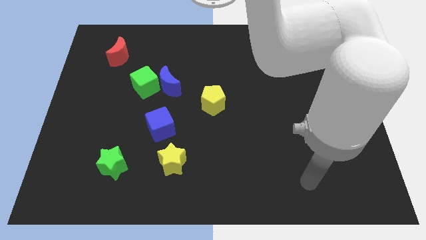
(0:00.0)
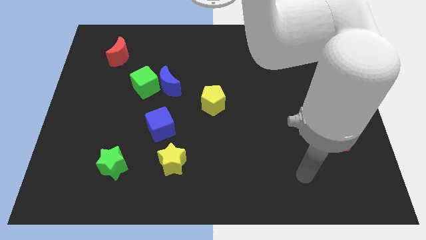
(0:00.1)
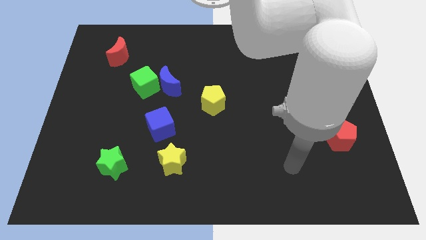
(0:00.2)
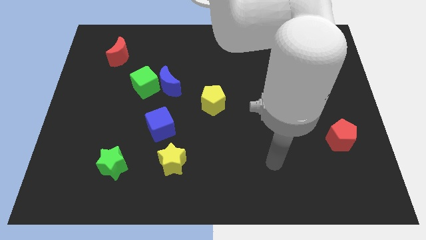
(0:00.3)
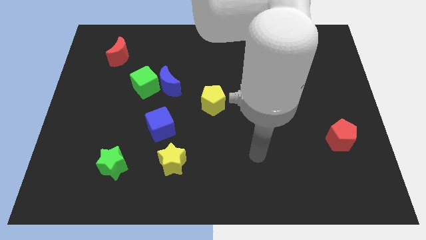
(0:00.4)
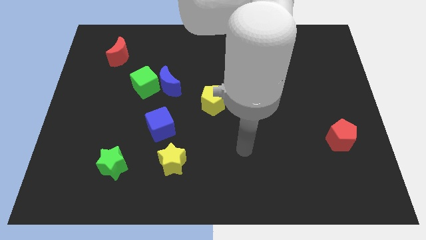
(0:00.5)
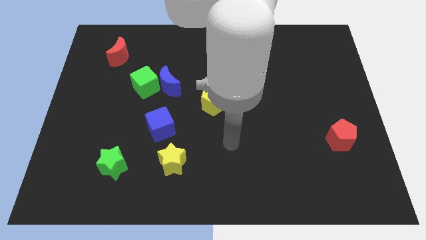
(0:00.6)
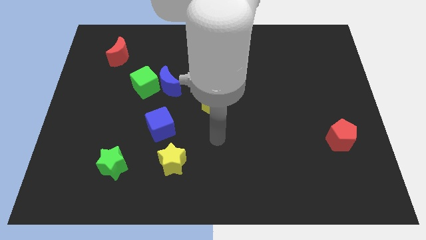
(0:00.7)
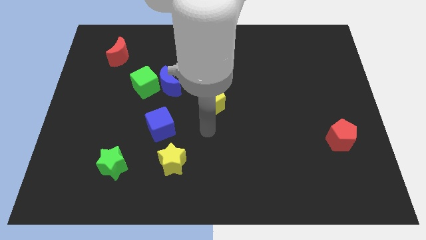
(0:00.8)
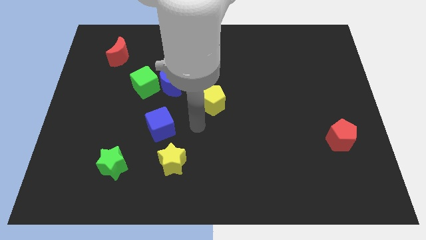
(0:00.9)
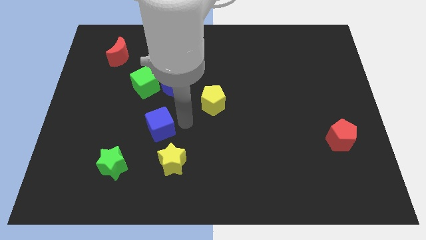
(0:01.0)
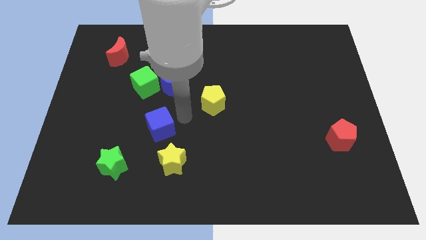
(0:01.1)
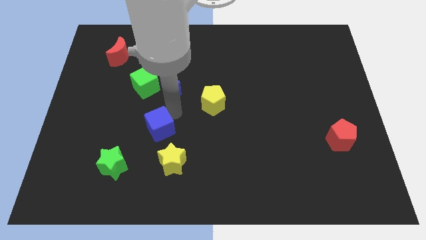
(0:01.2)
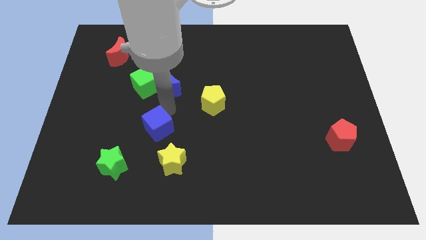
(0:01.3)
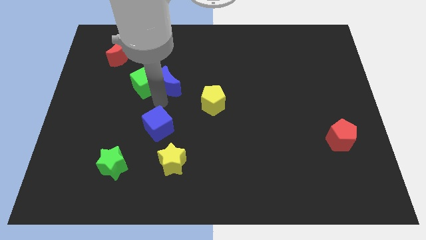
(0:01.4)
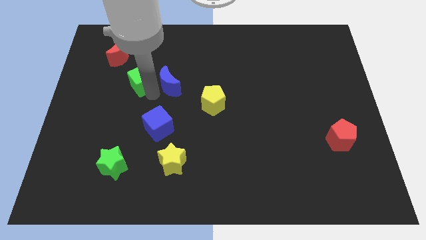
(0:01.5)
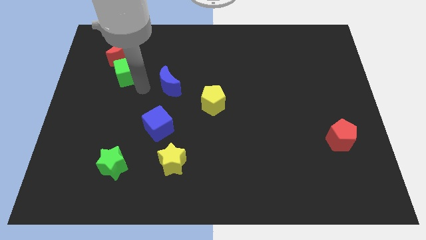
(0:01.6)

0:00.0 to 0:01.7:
pull the blue moon apart from the green cube

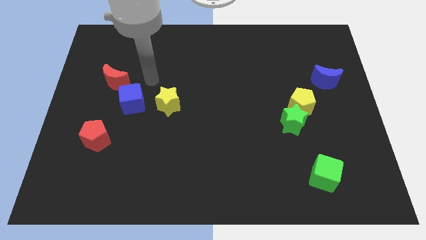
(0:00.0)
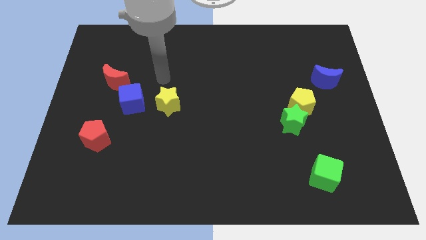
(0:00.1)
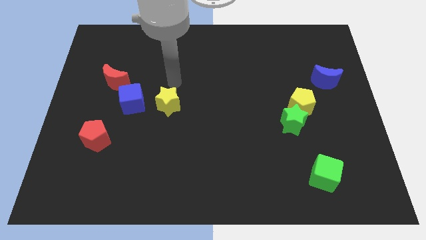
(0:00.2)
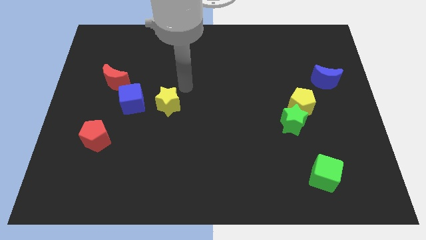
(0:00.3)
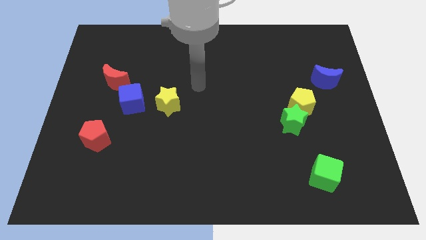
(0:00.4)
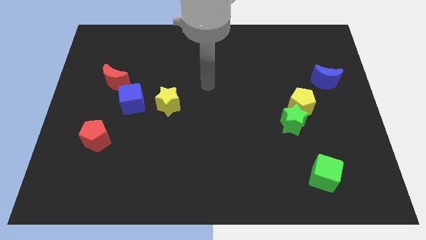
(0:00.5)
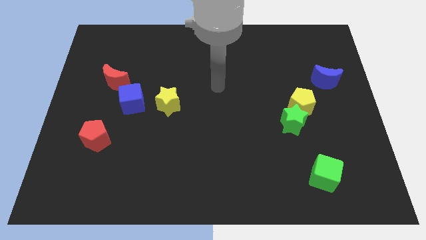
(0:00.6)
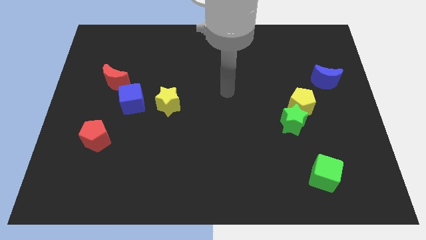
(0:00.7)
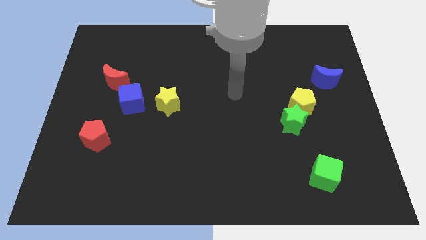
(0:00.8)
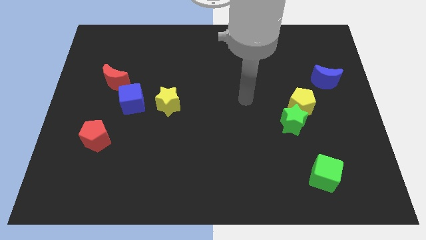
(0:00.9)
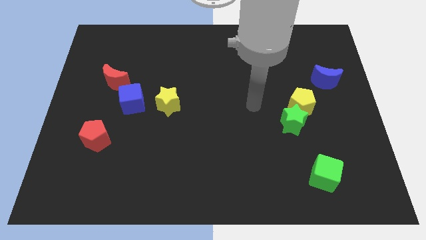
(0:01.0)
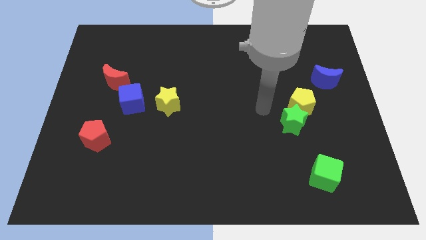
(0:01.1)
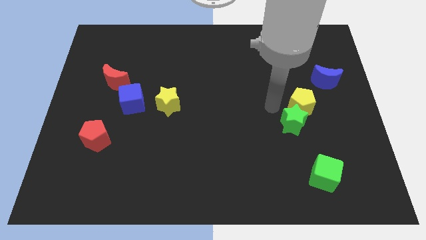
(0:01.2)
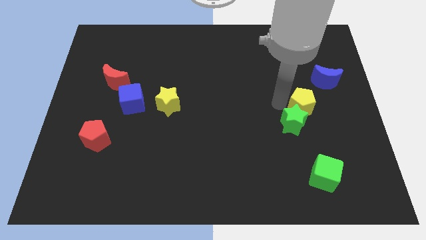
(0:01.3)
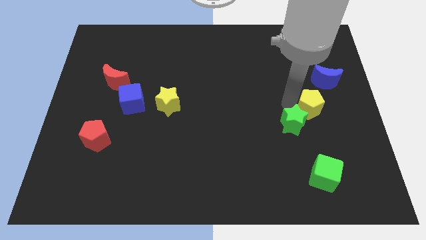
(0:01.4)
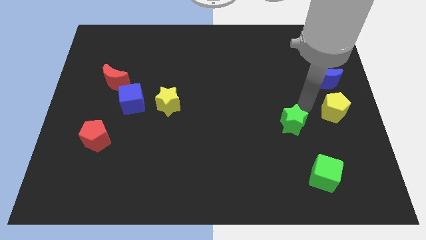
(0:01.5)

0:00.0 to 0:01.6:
pull the green star apart from the yellow pentagon

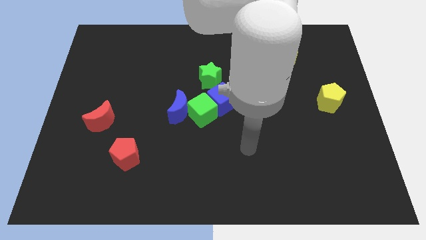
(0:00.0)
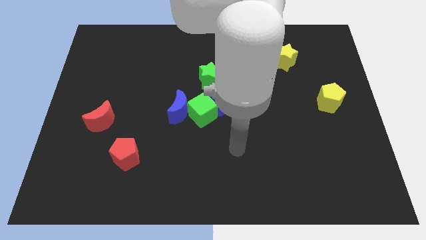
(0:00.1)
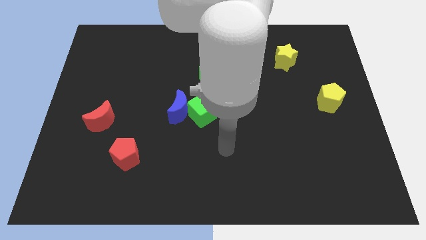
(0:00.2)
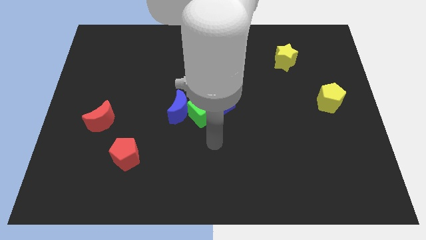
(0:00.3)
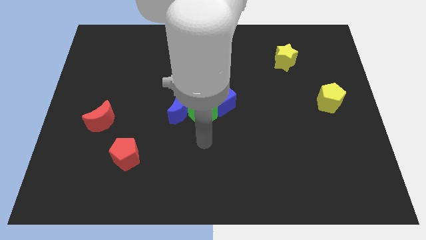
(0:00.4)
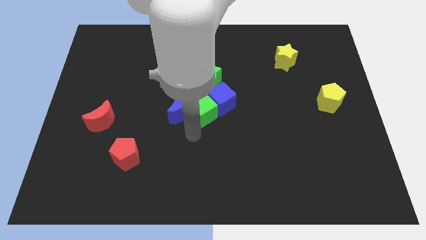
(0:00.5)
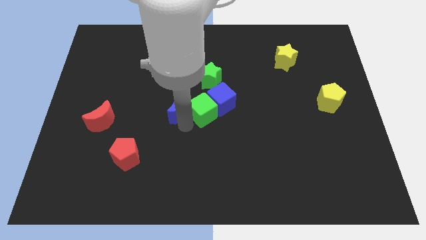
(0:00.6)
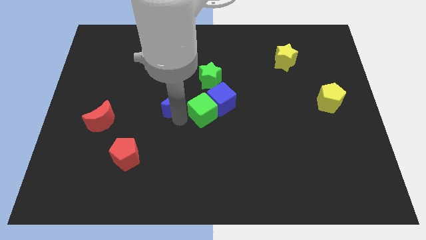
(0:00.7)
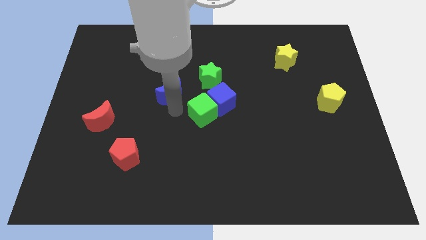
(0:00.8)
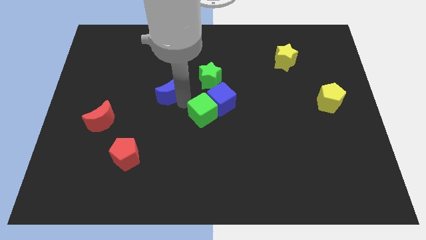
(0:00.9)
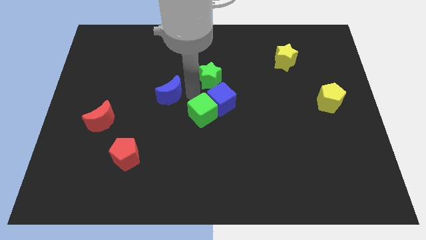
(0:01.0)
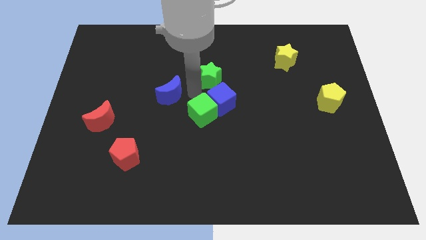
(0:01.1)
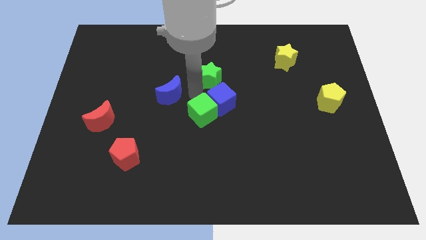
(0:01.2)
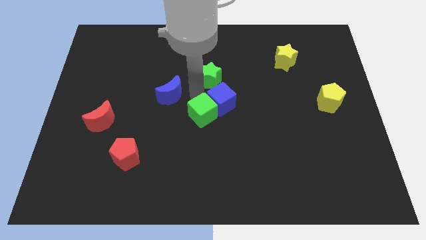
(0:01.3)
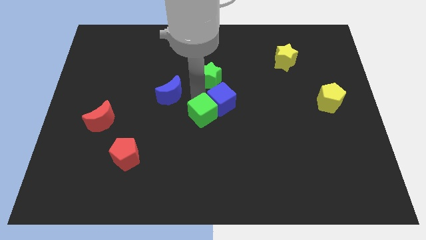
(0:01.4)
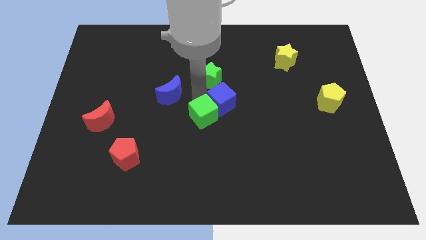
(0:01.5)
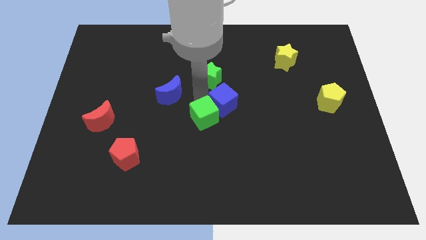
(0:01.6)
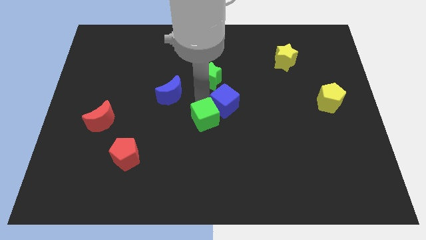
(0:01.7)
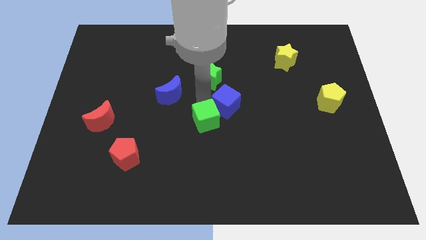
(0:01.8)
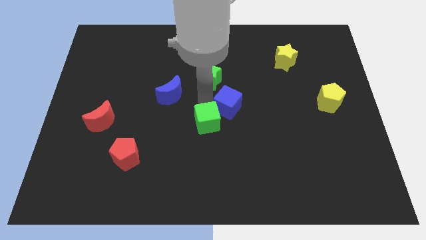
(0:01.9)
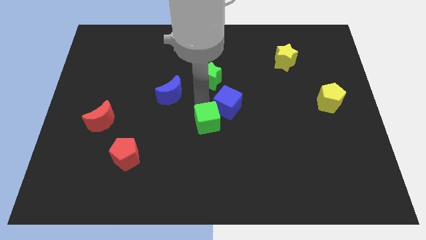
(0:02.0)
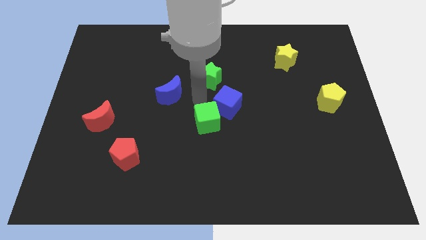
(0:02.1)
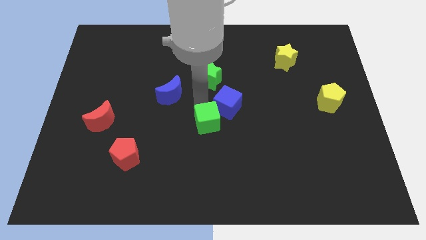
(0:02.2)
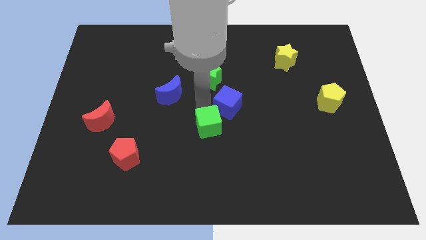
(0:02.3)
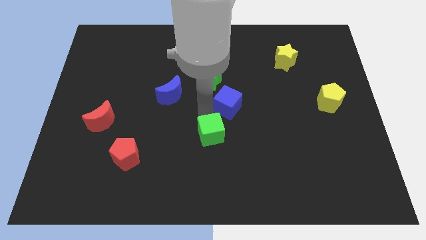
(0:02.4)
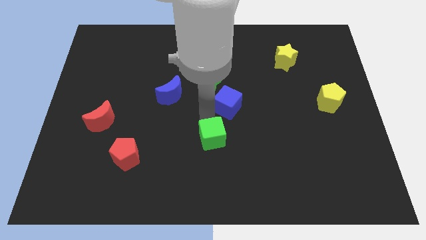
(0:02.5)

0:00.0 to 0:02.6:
separate the green cube from the blue moon and blue cube

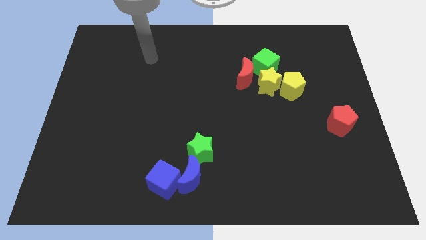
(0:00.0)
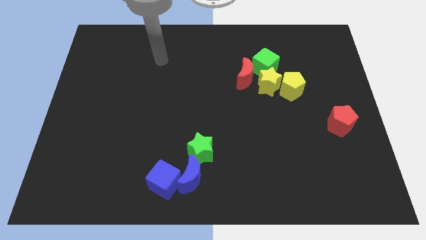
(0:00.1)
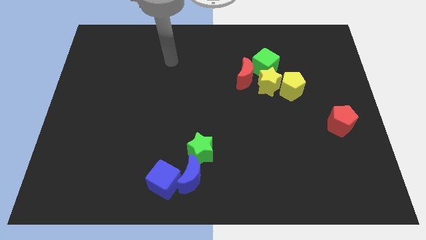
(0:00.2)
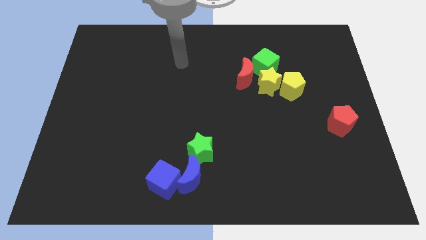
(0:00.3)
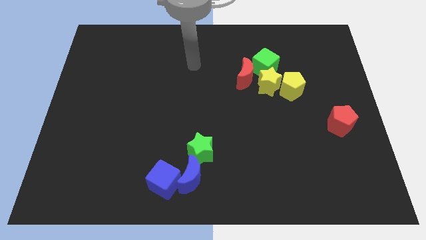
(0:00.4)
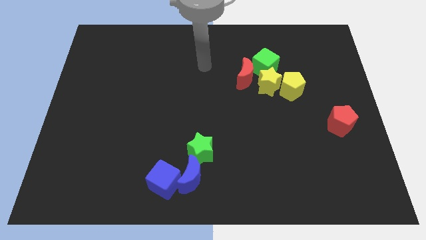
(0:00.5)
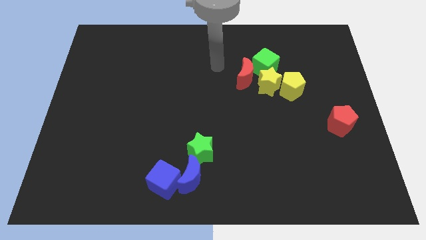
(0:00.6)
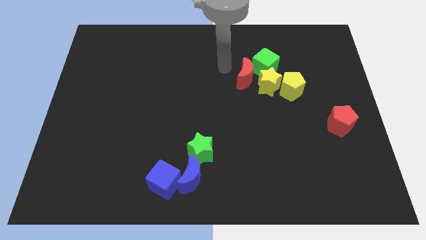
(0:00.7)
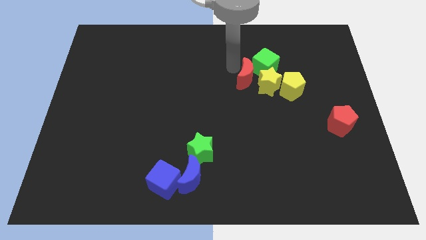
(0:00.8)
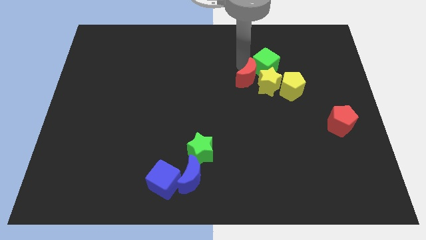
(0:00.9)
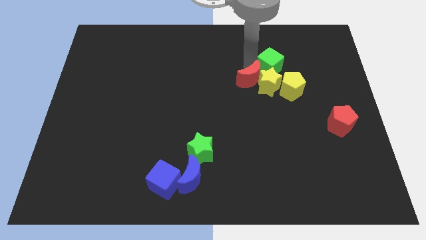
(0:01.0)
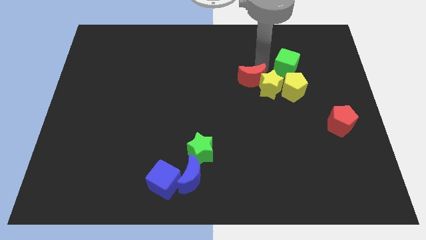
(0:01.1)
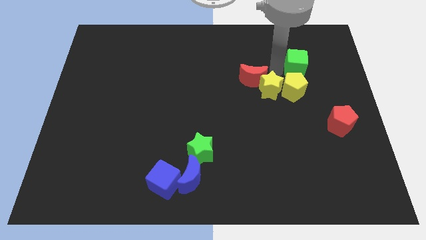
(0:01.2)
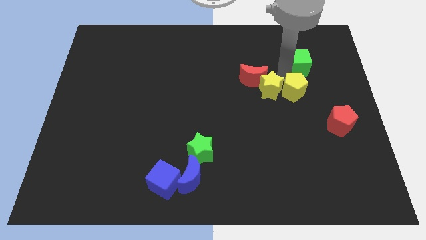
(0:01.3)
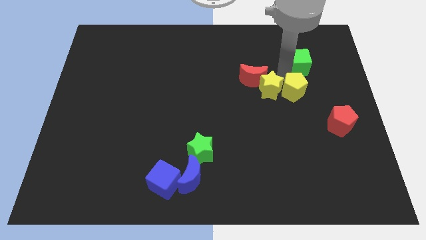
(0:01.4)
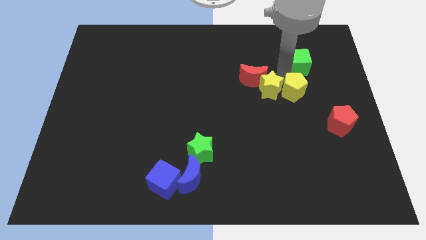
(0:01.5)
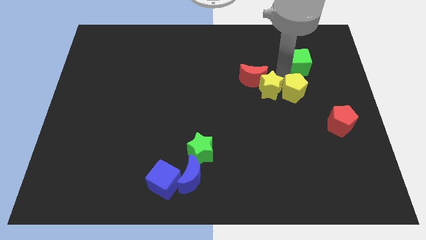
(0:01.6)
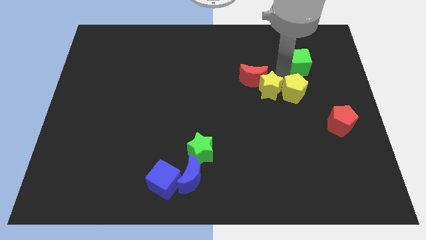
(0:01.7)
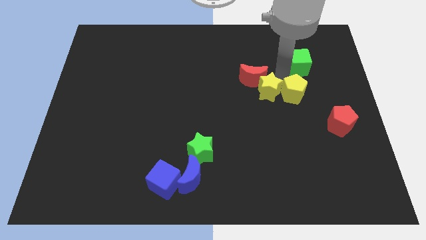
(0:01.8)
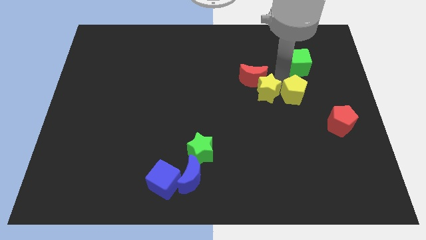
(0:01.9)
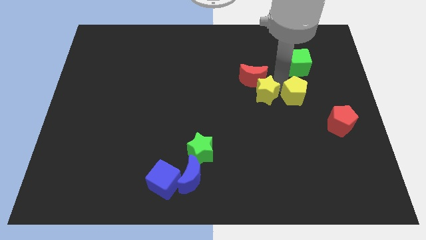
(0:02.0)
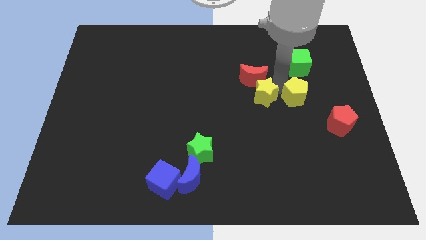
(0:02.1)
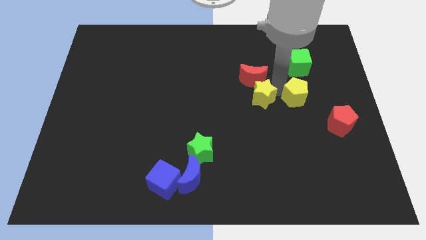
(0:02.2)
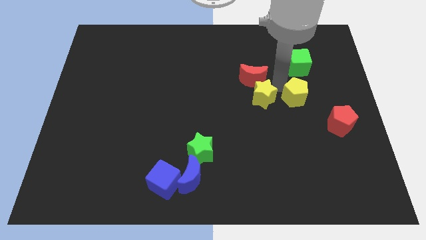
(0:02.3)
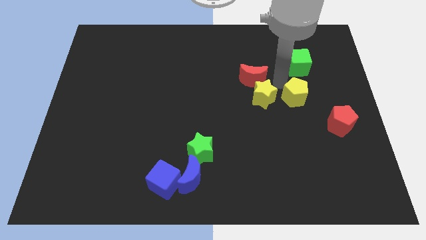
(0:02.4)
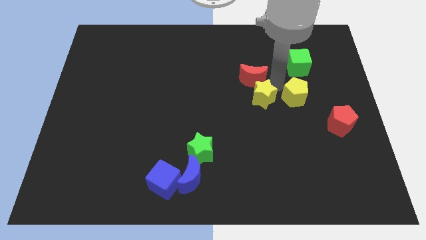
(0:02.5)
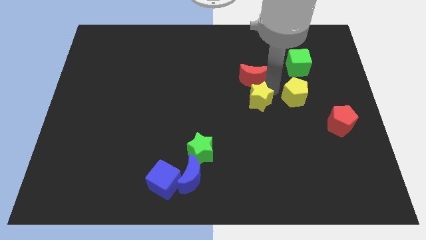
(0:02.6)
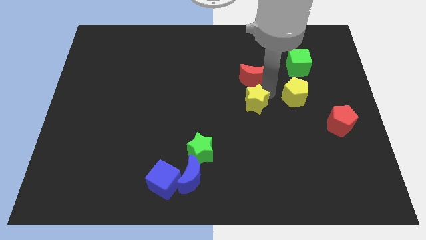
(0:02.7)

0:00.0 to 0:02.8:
separate the yellow star from the red moon, yellow pentagon, and green cube

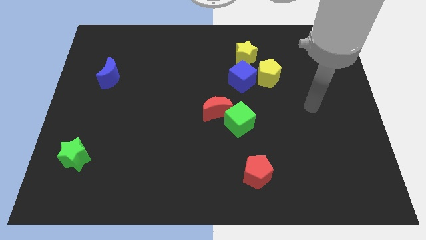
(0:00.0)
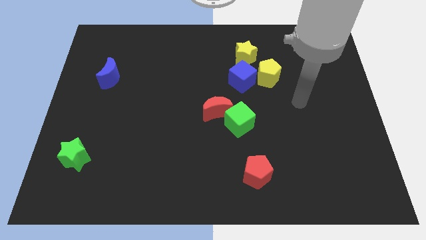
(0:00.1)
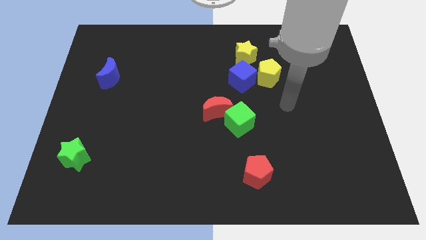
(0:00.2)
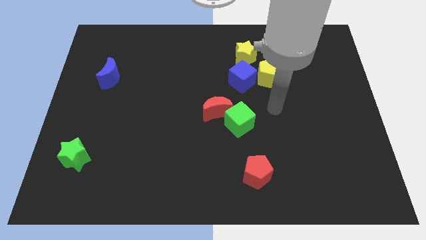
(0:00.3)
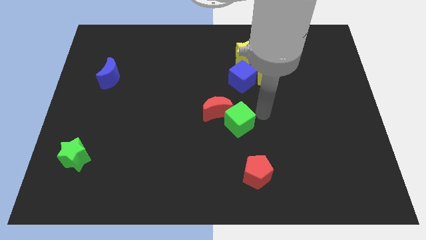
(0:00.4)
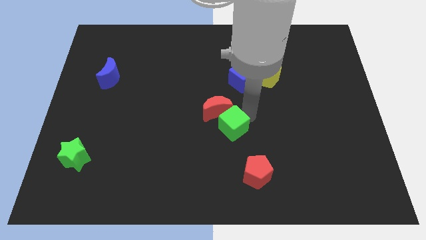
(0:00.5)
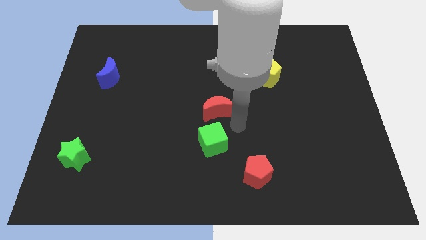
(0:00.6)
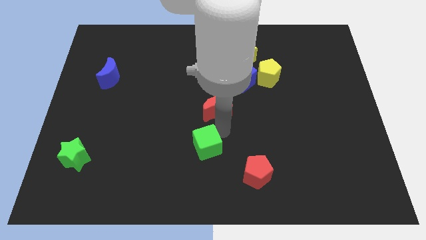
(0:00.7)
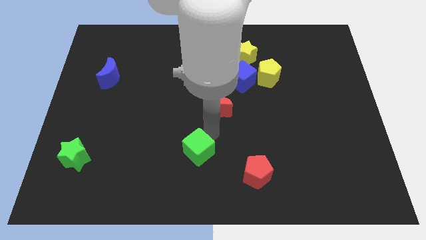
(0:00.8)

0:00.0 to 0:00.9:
separate the red moon from the green cube
